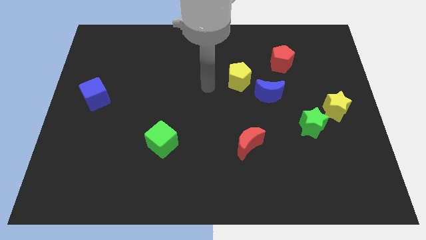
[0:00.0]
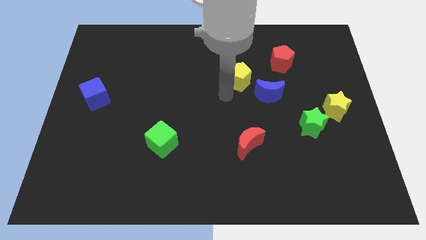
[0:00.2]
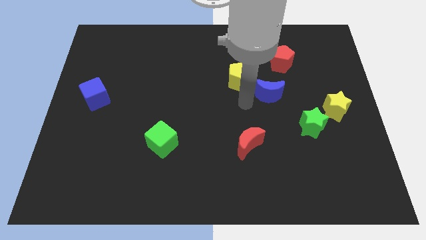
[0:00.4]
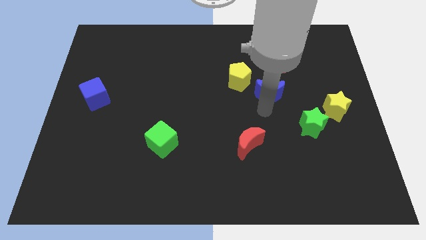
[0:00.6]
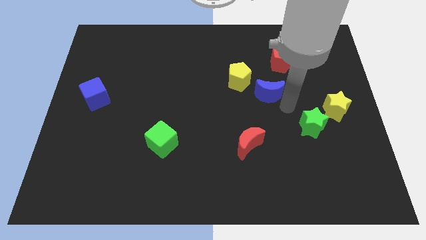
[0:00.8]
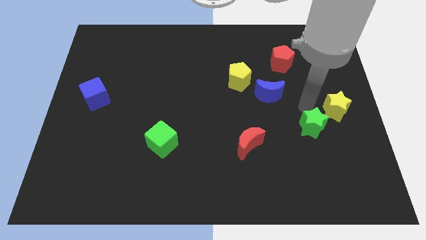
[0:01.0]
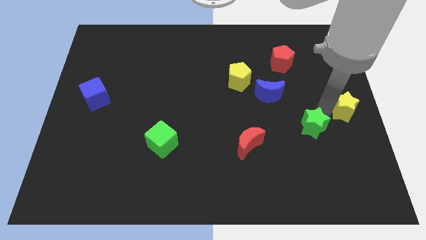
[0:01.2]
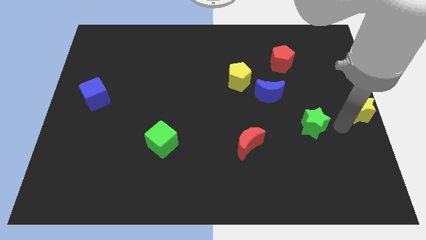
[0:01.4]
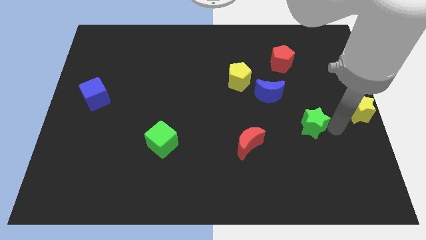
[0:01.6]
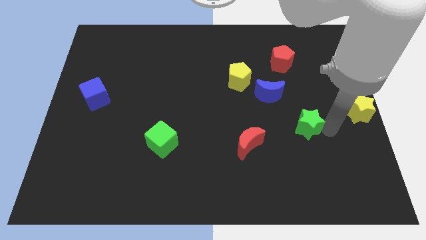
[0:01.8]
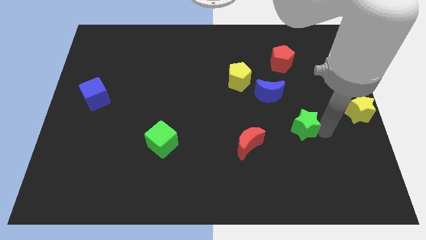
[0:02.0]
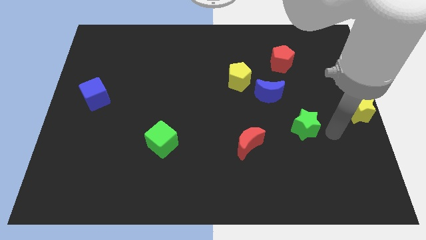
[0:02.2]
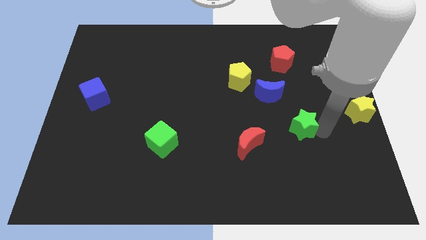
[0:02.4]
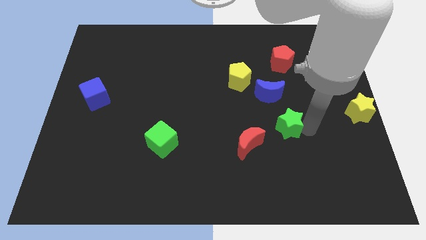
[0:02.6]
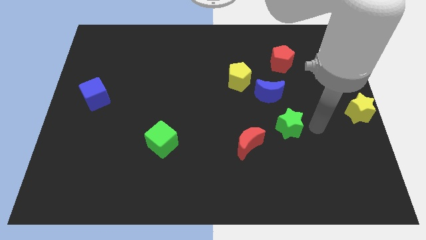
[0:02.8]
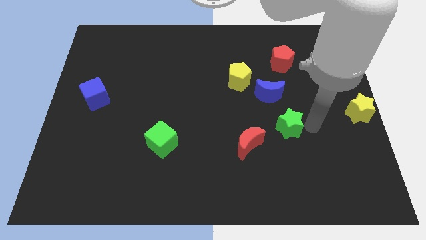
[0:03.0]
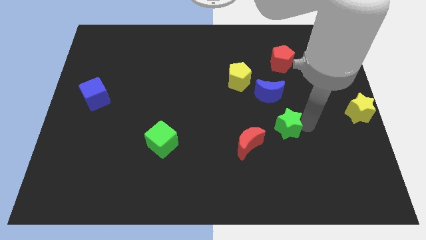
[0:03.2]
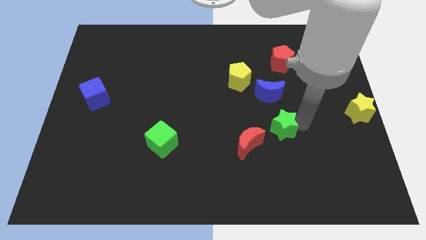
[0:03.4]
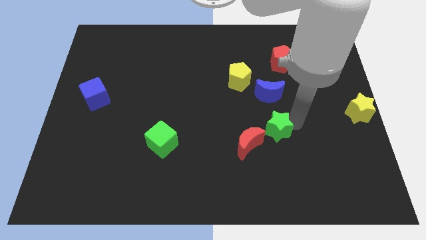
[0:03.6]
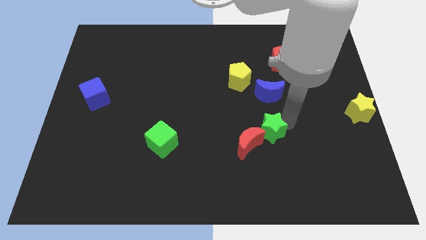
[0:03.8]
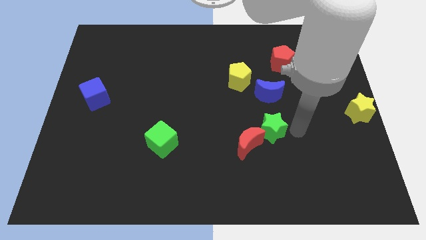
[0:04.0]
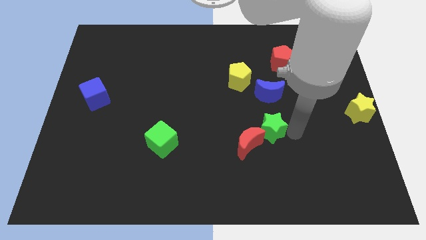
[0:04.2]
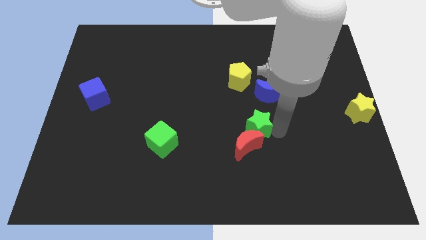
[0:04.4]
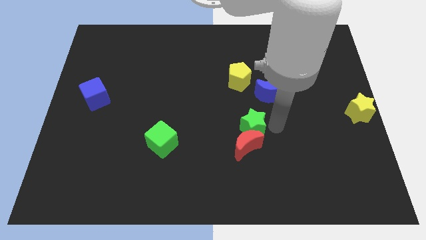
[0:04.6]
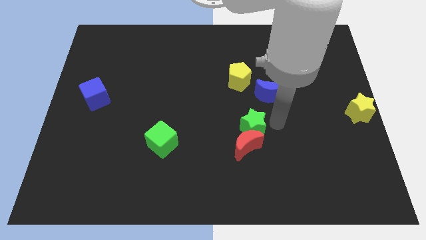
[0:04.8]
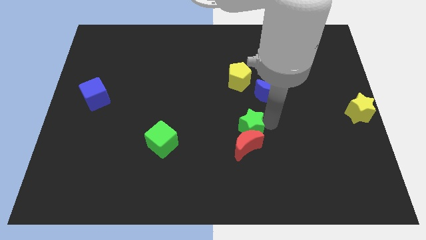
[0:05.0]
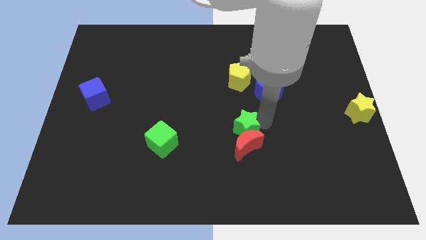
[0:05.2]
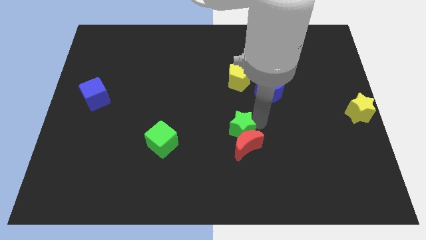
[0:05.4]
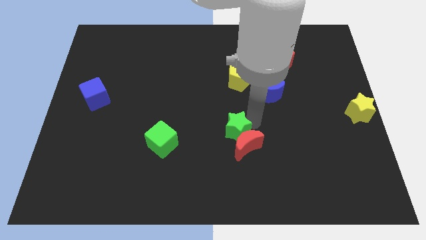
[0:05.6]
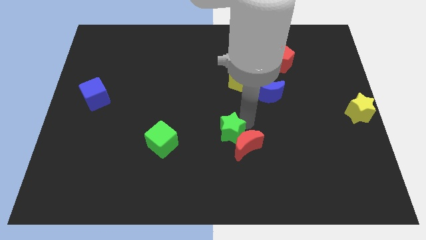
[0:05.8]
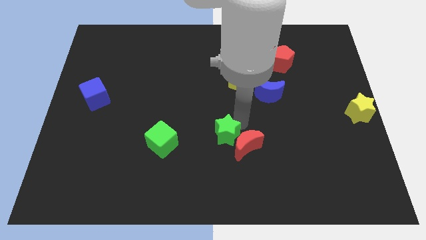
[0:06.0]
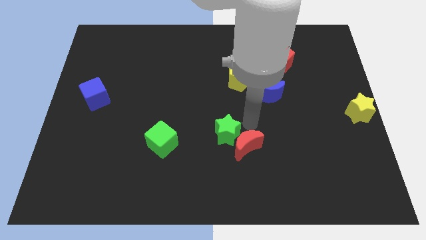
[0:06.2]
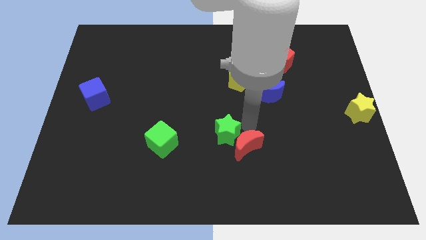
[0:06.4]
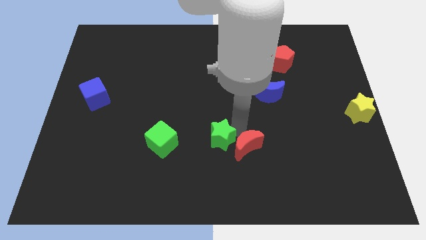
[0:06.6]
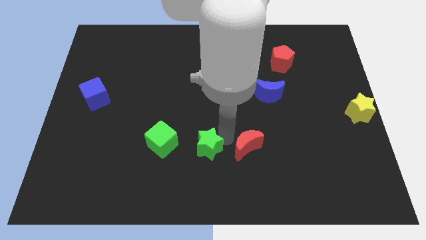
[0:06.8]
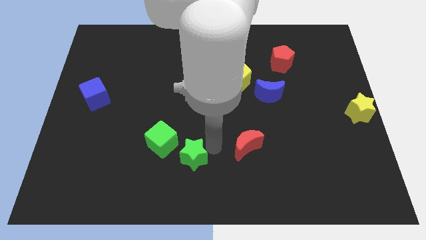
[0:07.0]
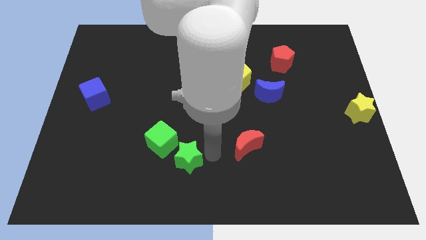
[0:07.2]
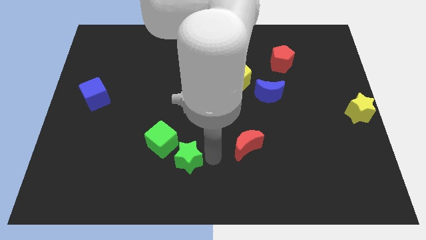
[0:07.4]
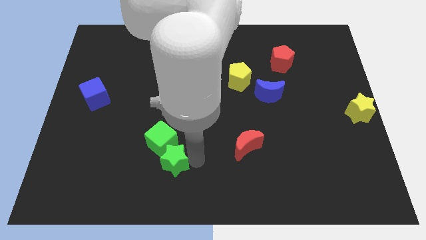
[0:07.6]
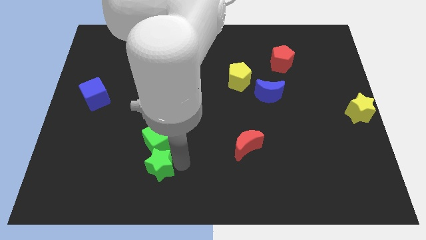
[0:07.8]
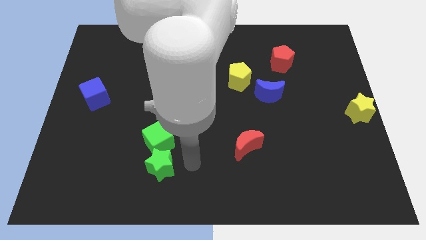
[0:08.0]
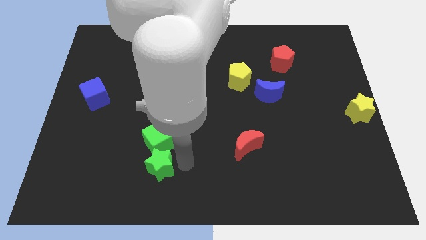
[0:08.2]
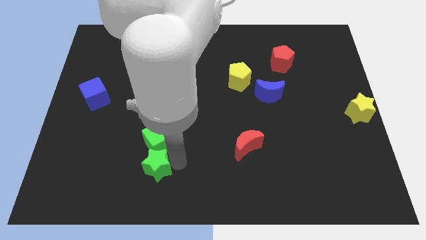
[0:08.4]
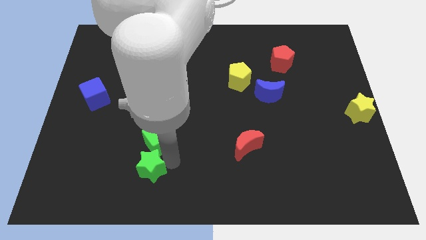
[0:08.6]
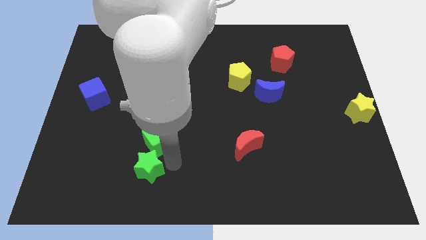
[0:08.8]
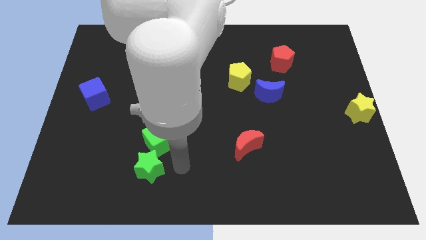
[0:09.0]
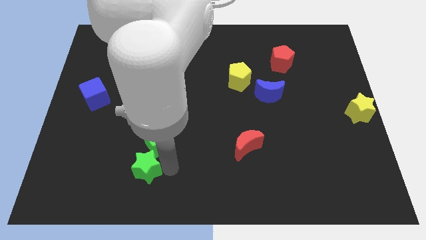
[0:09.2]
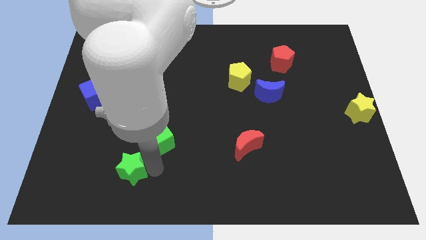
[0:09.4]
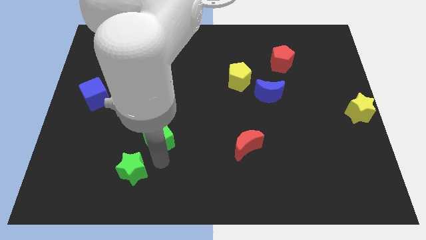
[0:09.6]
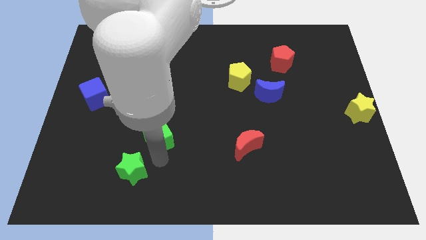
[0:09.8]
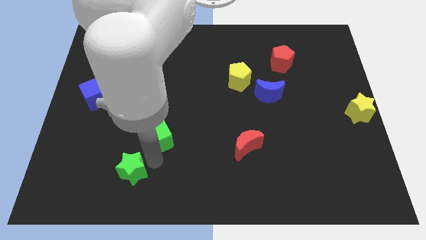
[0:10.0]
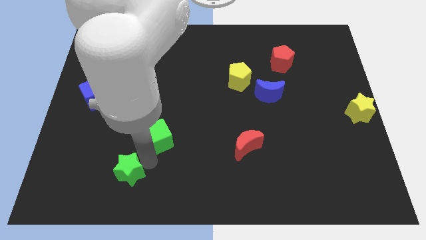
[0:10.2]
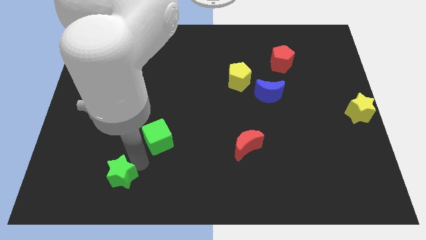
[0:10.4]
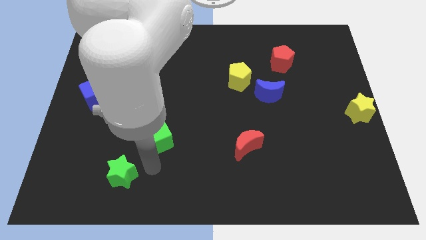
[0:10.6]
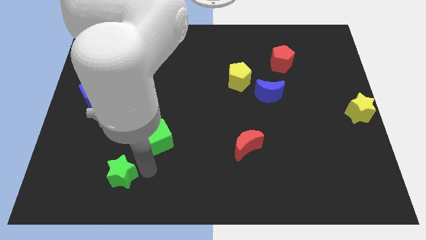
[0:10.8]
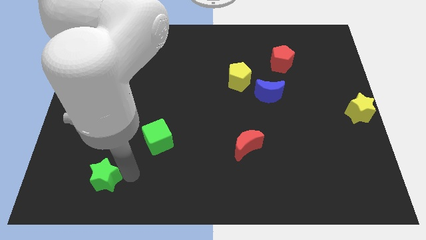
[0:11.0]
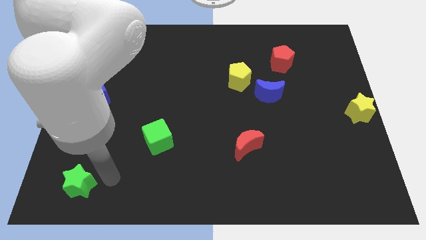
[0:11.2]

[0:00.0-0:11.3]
put the green star to the bottom left

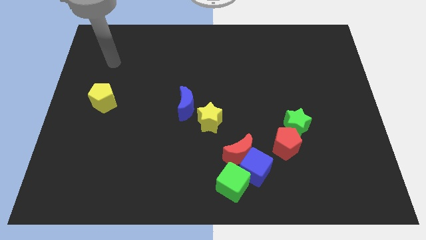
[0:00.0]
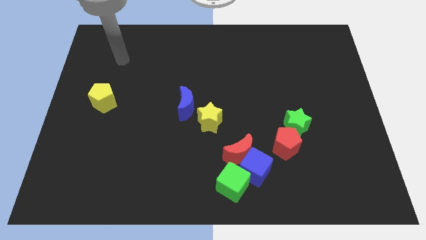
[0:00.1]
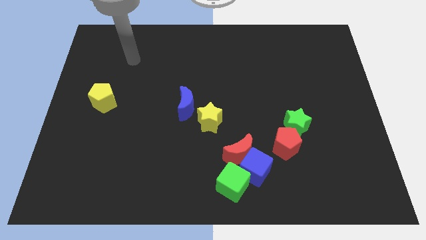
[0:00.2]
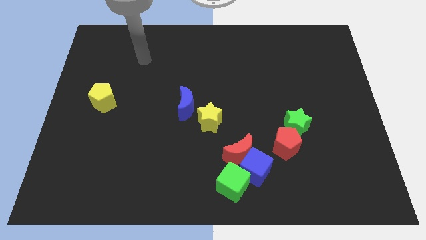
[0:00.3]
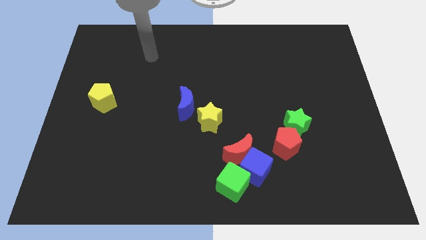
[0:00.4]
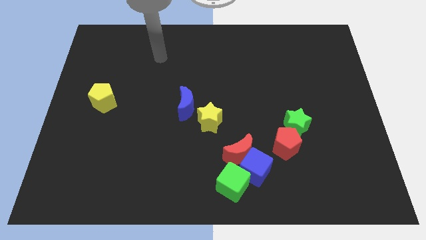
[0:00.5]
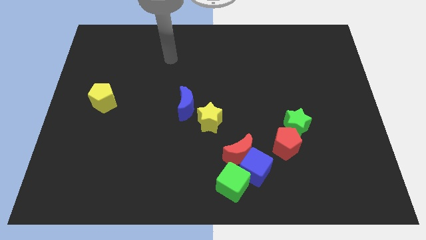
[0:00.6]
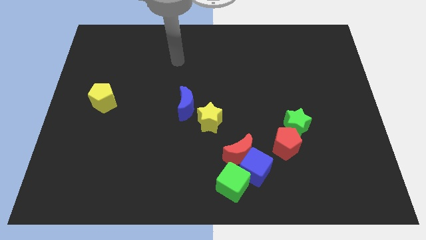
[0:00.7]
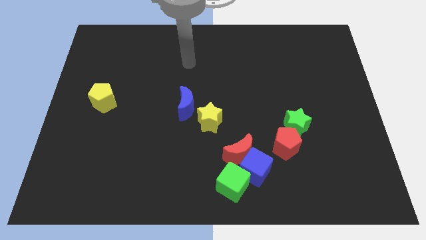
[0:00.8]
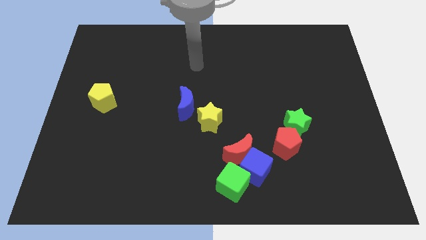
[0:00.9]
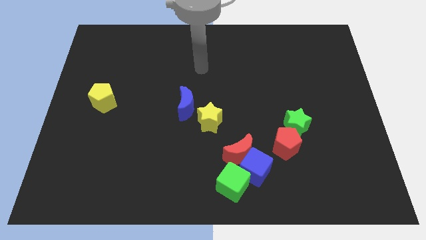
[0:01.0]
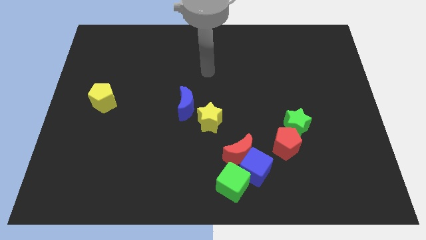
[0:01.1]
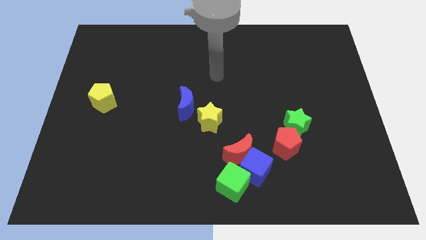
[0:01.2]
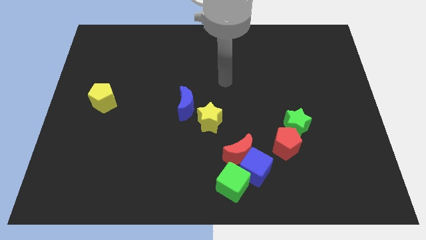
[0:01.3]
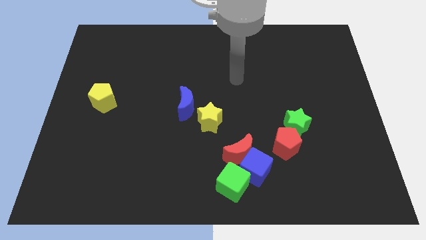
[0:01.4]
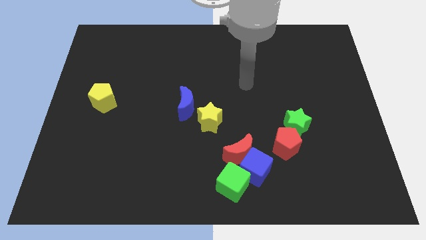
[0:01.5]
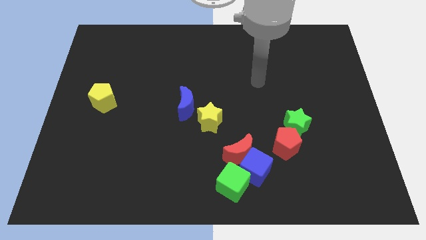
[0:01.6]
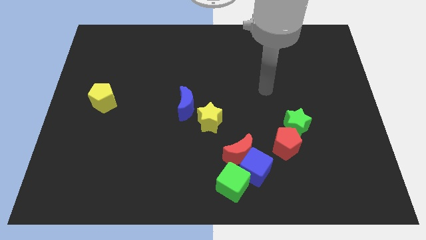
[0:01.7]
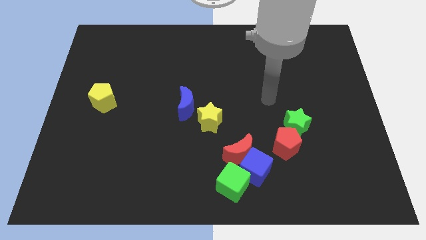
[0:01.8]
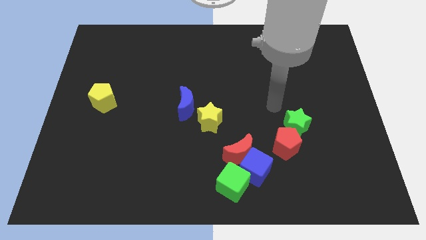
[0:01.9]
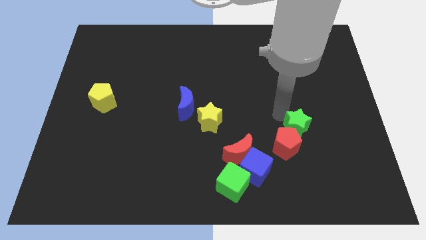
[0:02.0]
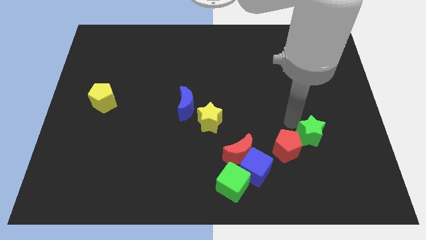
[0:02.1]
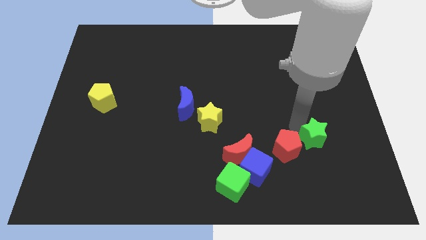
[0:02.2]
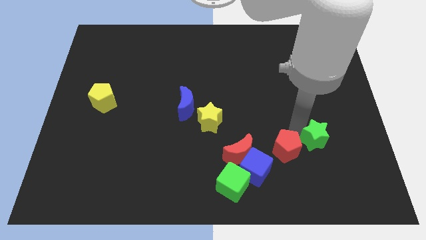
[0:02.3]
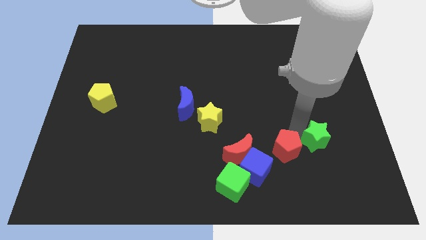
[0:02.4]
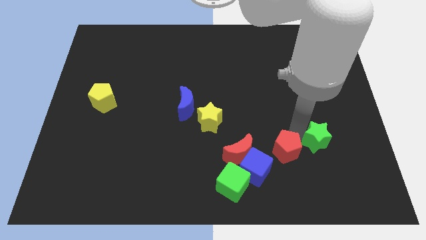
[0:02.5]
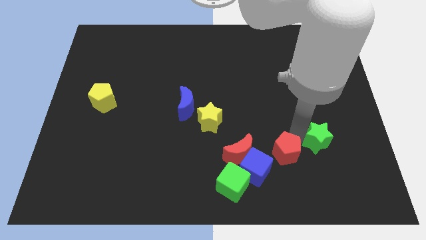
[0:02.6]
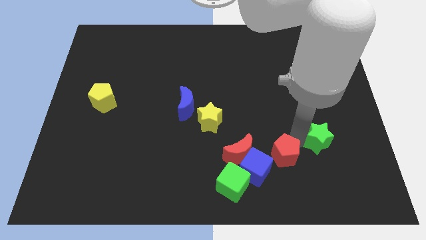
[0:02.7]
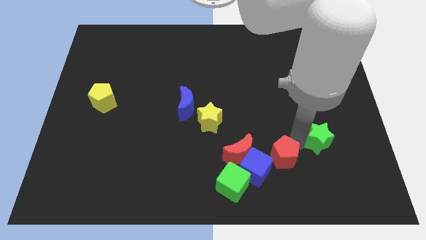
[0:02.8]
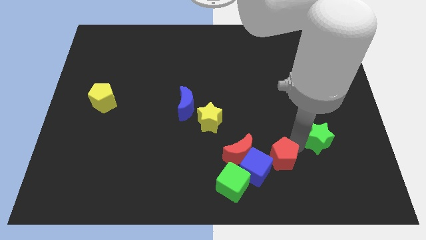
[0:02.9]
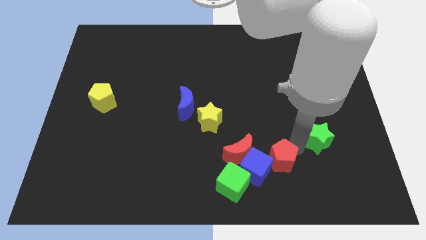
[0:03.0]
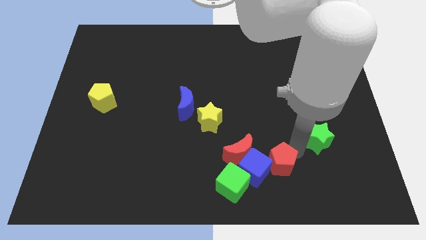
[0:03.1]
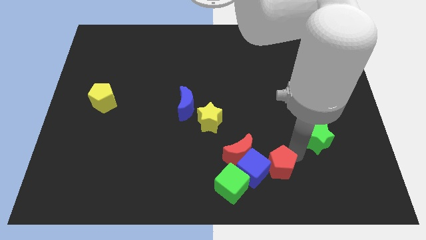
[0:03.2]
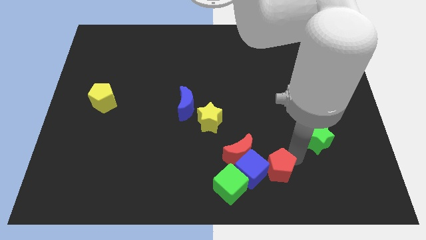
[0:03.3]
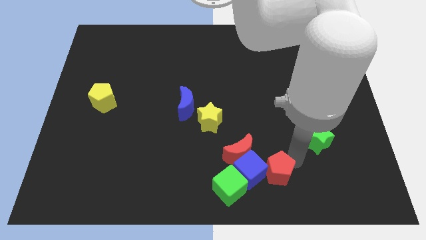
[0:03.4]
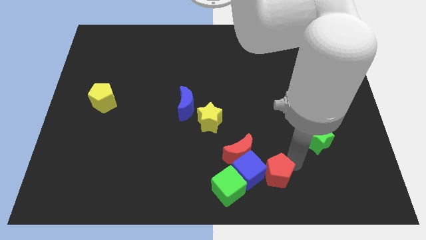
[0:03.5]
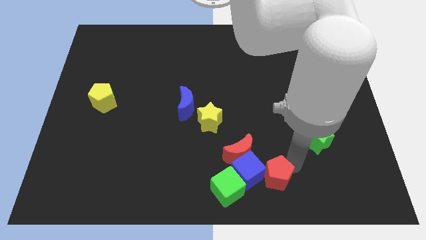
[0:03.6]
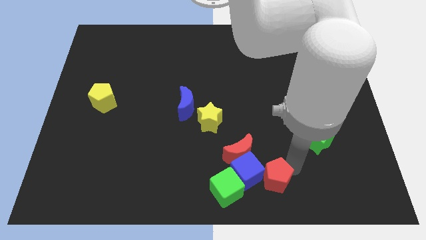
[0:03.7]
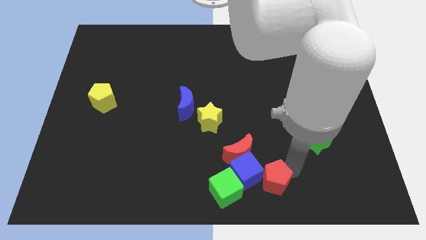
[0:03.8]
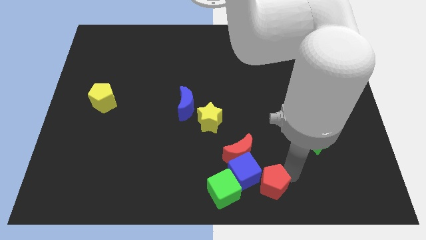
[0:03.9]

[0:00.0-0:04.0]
push the red pentagon to the bottom side
